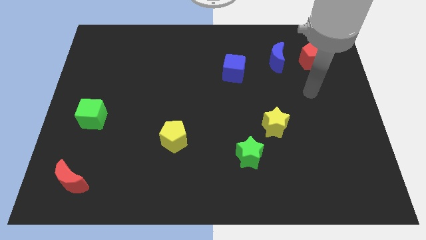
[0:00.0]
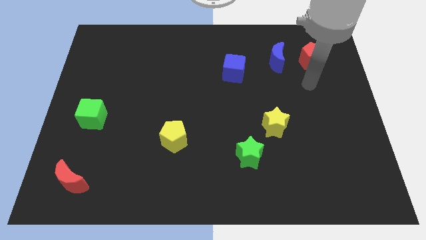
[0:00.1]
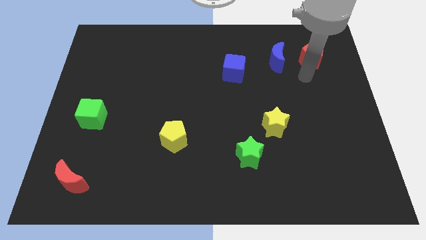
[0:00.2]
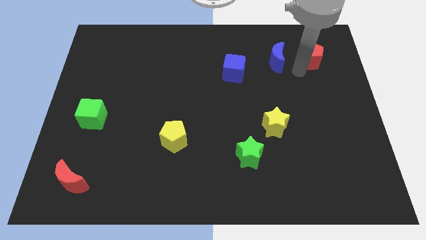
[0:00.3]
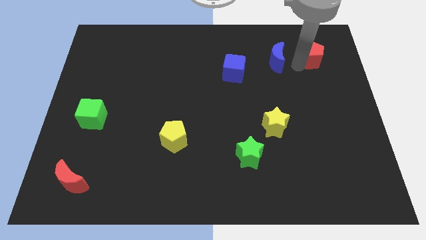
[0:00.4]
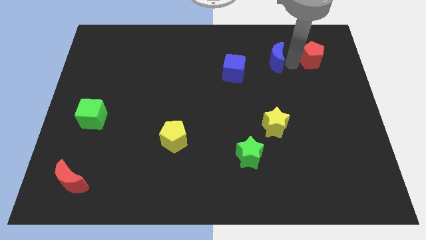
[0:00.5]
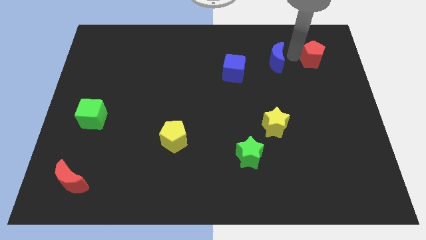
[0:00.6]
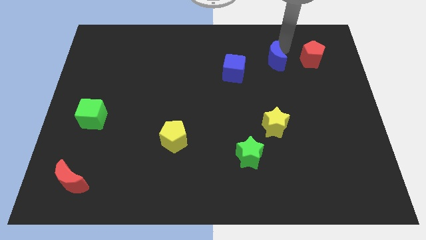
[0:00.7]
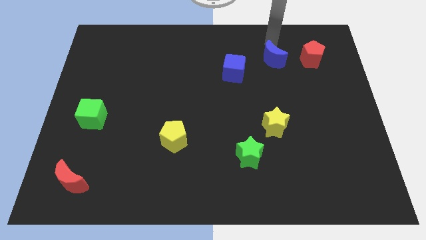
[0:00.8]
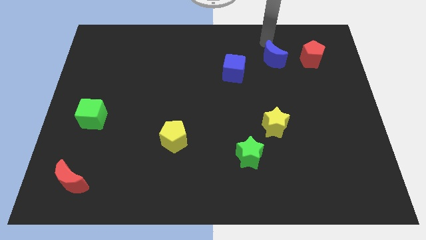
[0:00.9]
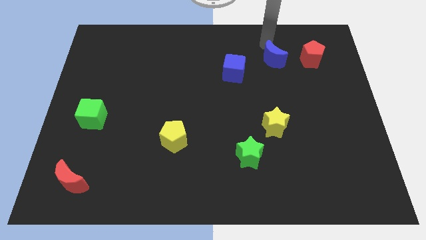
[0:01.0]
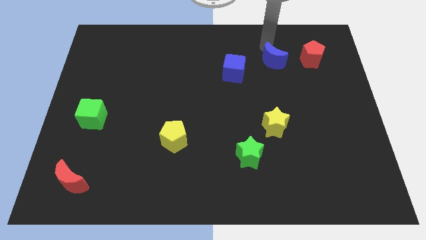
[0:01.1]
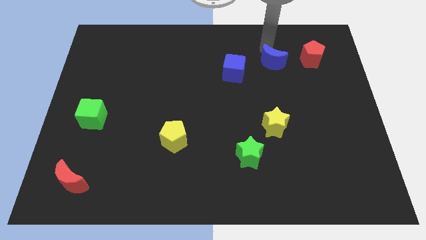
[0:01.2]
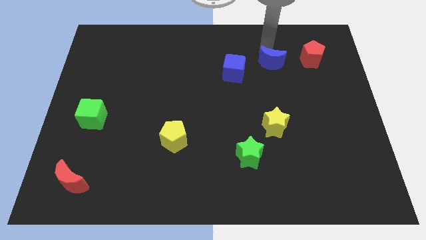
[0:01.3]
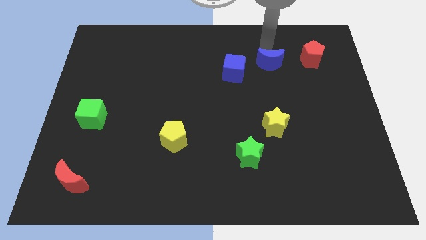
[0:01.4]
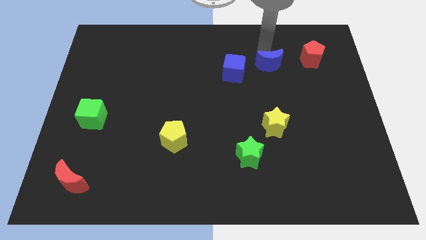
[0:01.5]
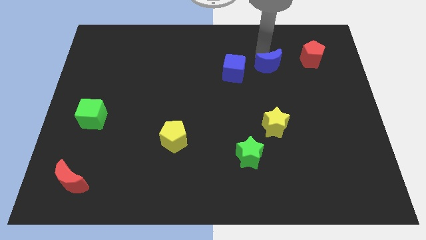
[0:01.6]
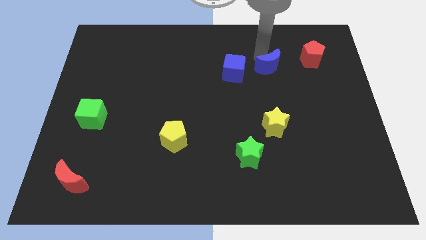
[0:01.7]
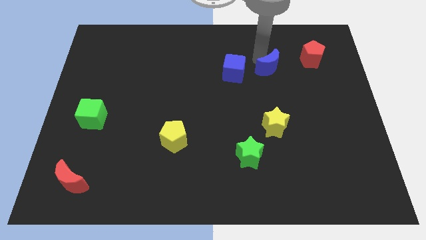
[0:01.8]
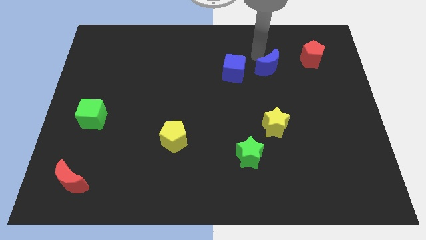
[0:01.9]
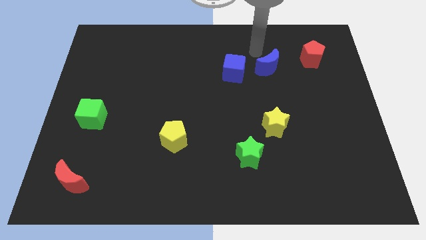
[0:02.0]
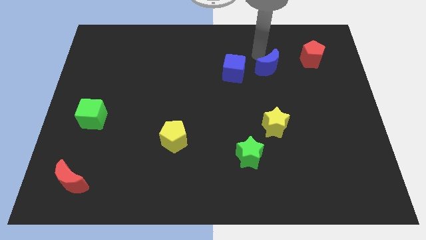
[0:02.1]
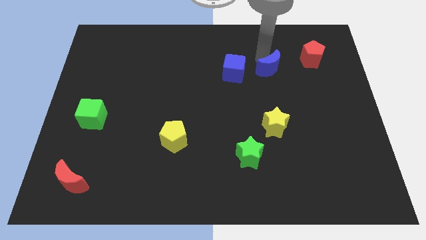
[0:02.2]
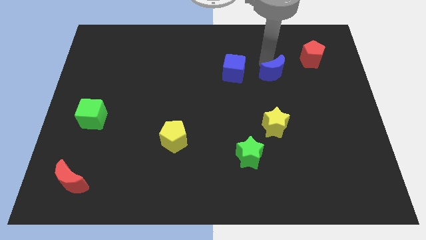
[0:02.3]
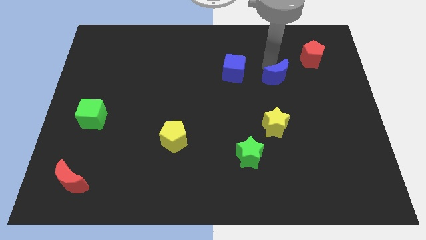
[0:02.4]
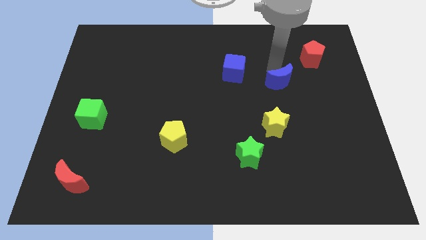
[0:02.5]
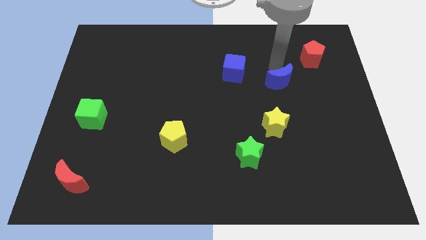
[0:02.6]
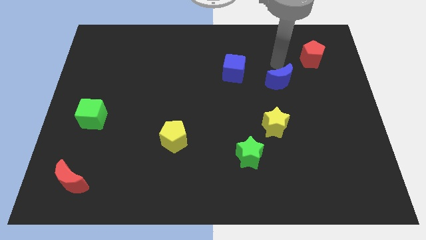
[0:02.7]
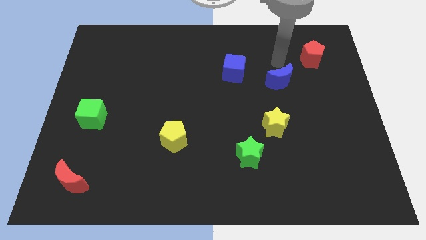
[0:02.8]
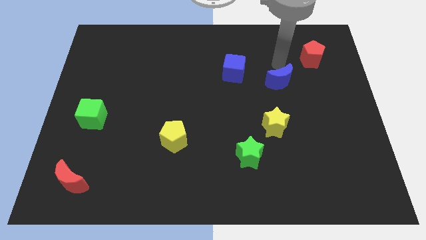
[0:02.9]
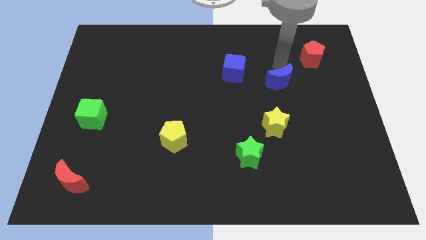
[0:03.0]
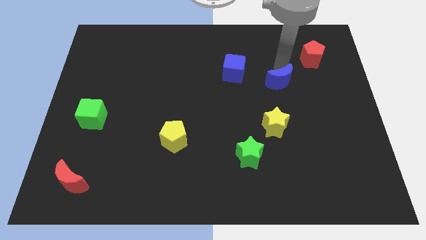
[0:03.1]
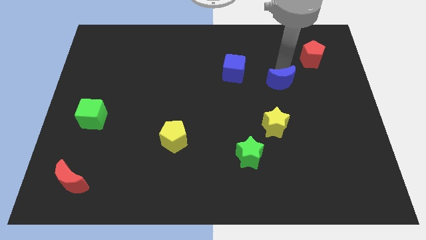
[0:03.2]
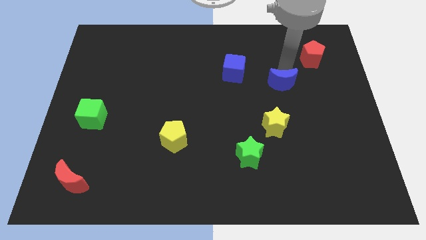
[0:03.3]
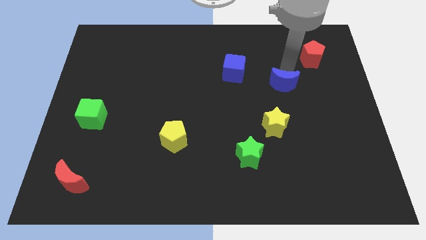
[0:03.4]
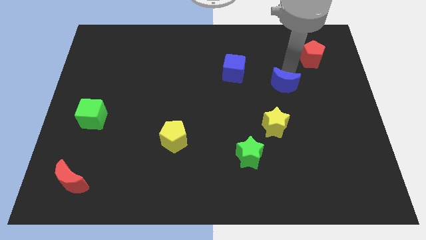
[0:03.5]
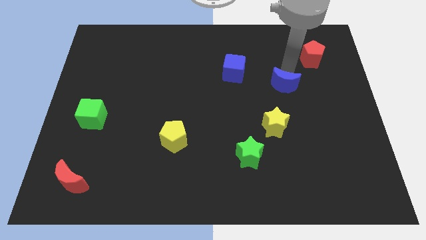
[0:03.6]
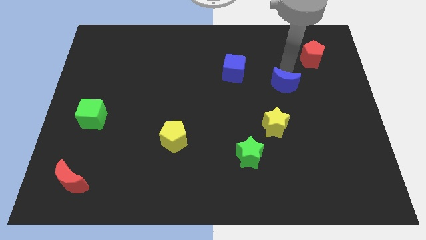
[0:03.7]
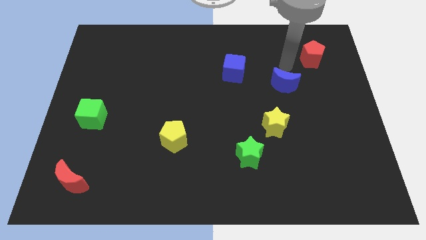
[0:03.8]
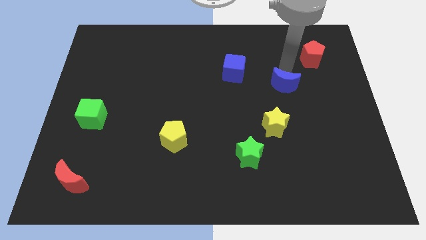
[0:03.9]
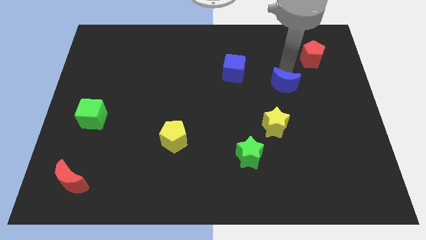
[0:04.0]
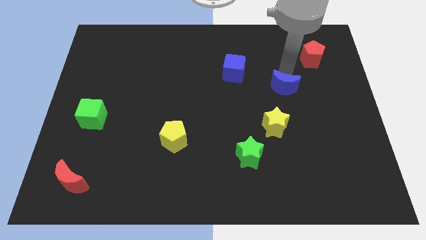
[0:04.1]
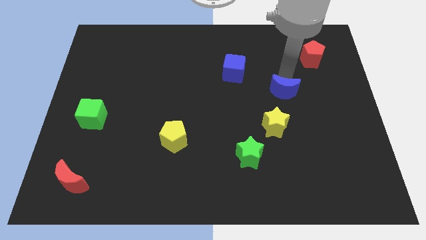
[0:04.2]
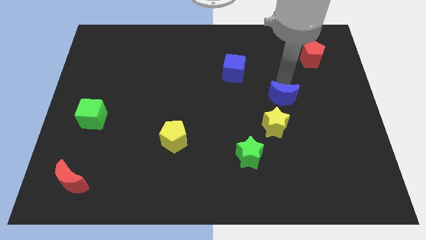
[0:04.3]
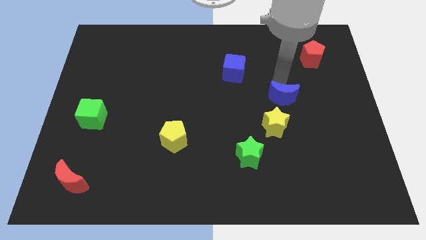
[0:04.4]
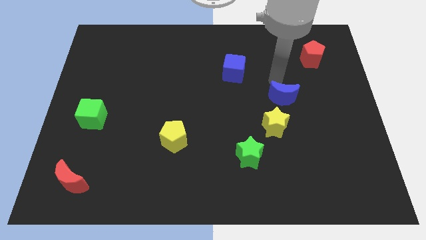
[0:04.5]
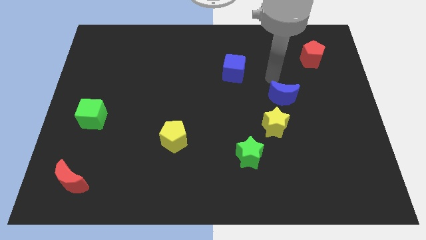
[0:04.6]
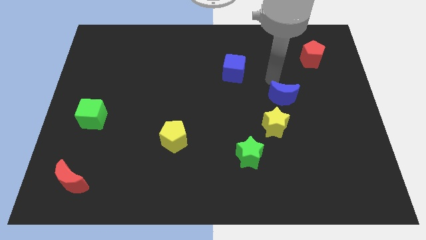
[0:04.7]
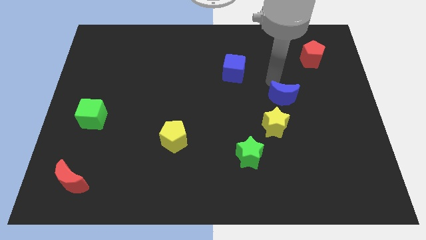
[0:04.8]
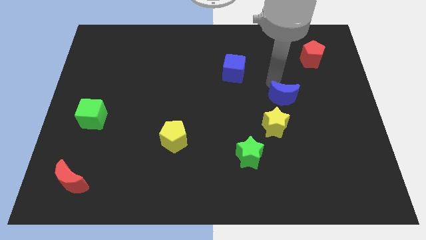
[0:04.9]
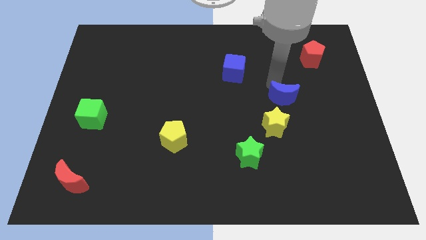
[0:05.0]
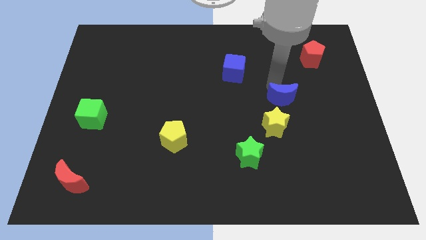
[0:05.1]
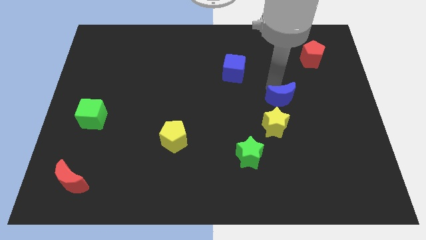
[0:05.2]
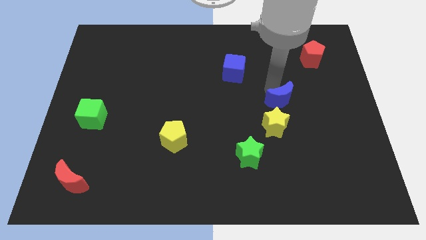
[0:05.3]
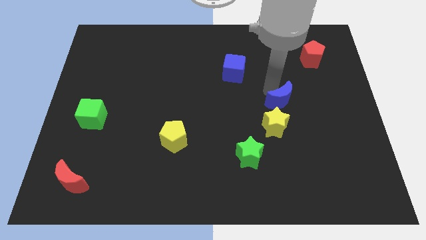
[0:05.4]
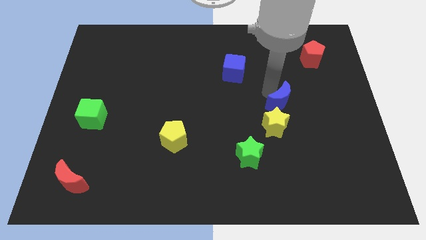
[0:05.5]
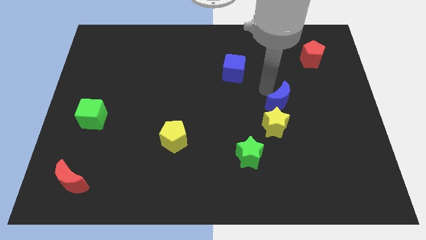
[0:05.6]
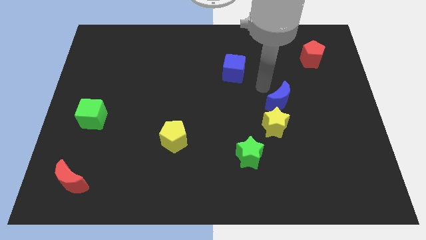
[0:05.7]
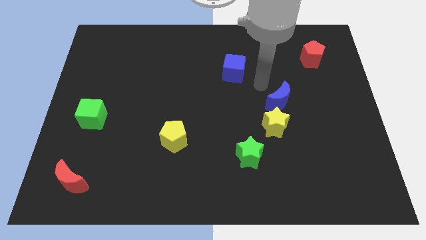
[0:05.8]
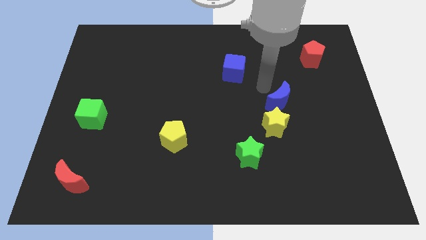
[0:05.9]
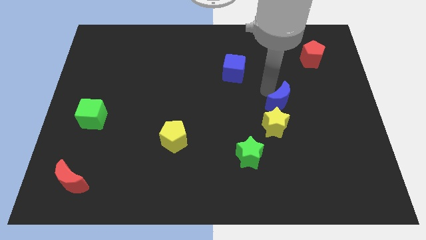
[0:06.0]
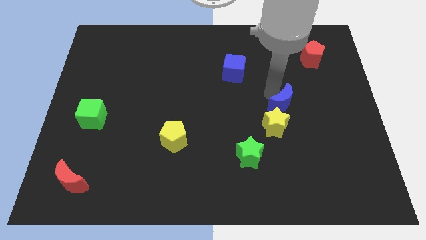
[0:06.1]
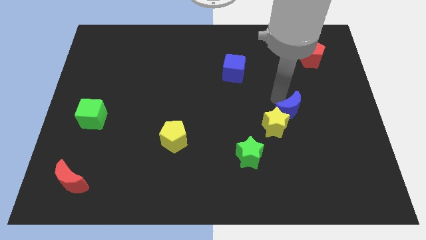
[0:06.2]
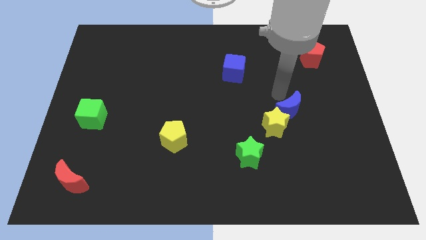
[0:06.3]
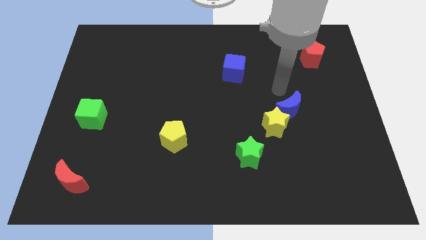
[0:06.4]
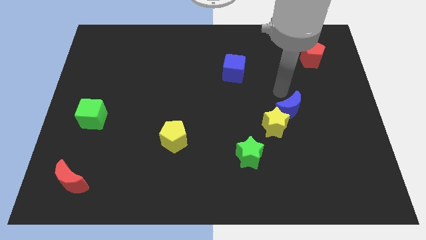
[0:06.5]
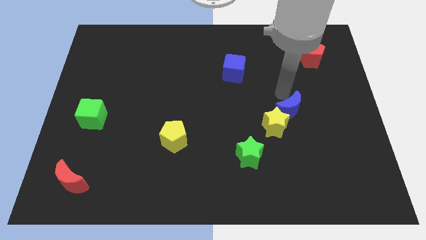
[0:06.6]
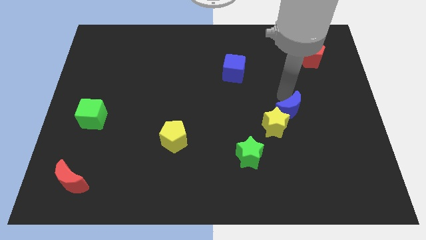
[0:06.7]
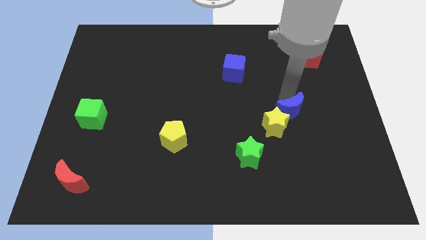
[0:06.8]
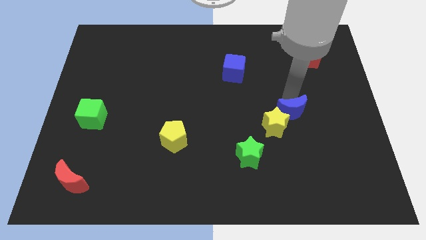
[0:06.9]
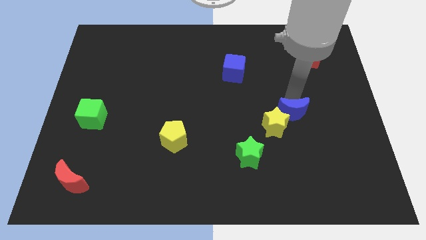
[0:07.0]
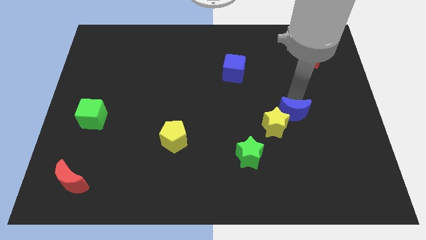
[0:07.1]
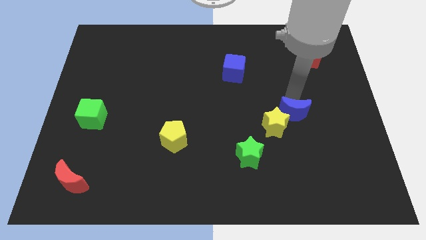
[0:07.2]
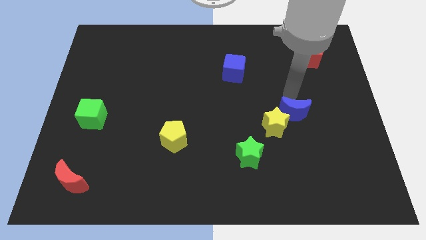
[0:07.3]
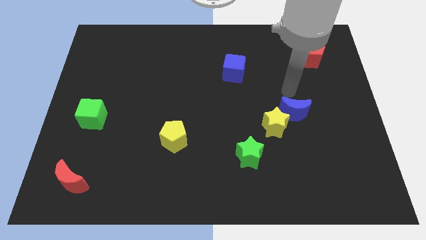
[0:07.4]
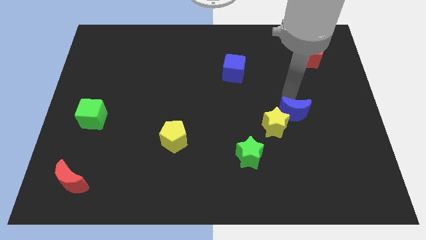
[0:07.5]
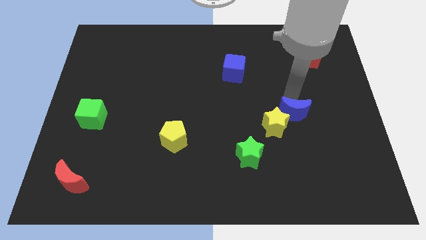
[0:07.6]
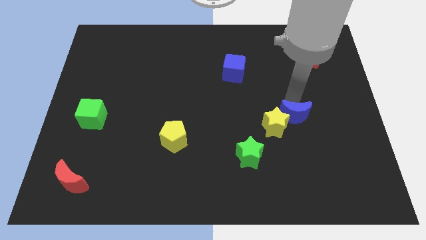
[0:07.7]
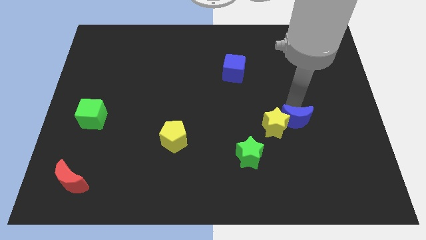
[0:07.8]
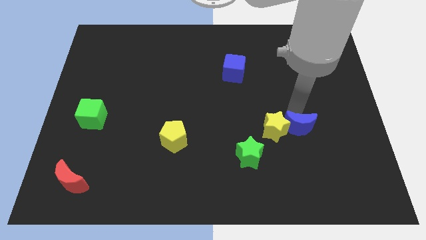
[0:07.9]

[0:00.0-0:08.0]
put the blue moon to the bottom right of the yellow star
